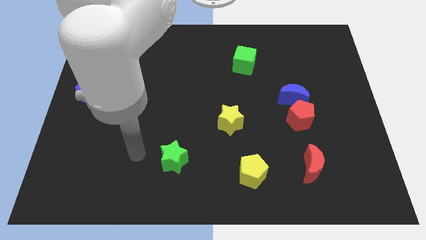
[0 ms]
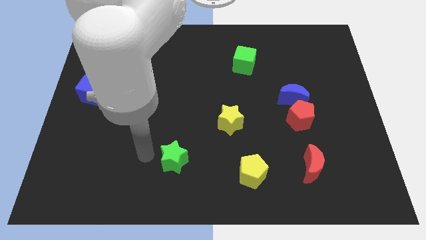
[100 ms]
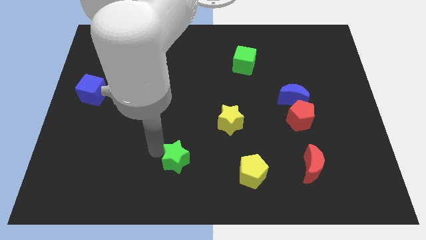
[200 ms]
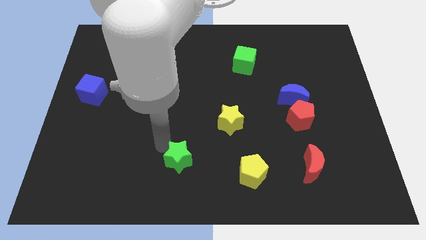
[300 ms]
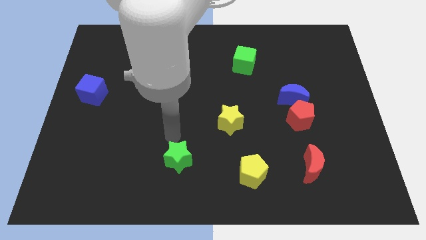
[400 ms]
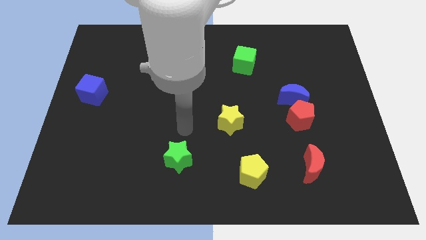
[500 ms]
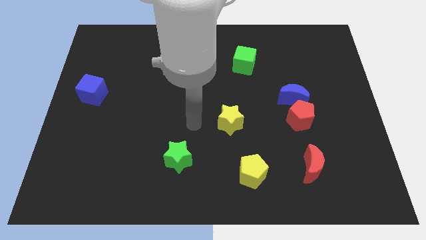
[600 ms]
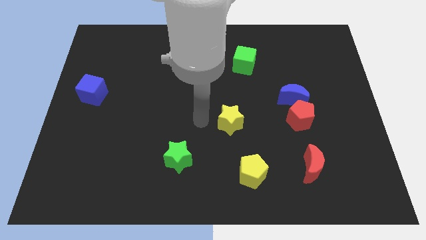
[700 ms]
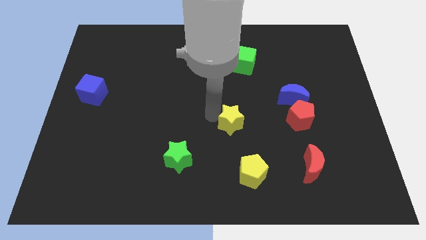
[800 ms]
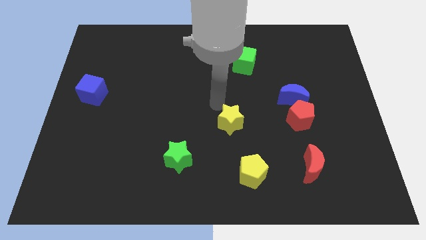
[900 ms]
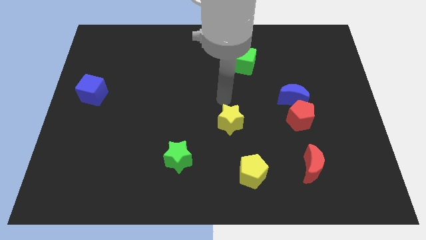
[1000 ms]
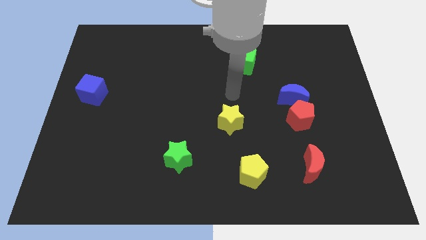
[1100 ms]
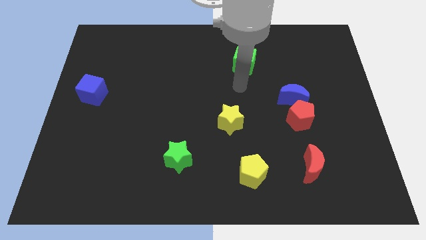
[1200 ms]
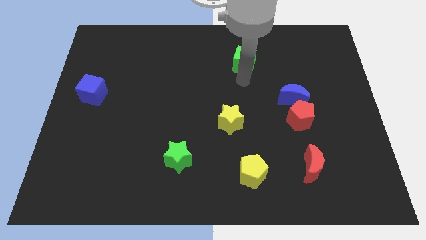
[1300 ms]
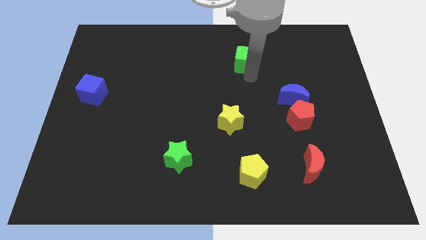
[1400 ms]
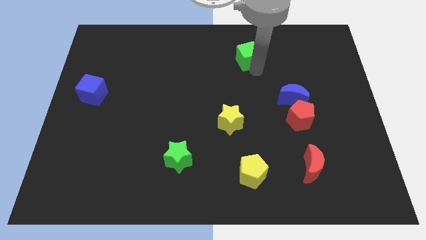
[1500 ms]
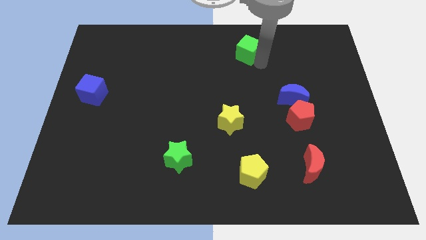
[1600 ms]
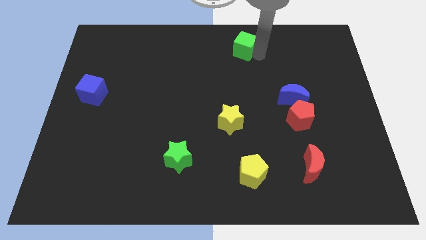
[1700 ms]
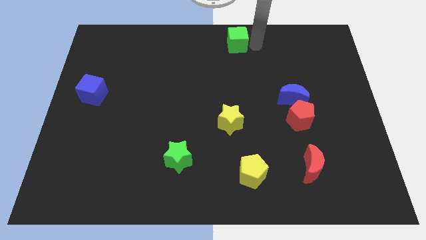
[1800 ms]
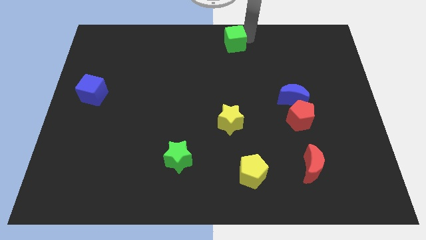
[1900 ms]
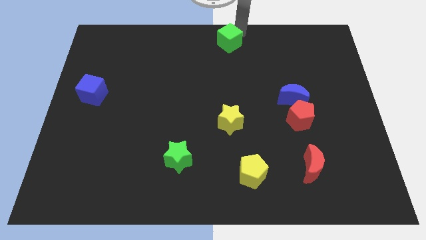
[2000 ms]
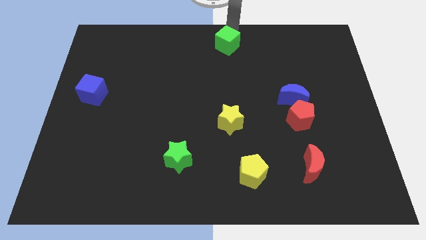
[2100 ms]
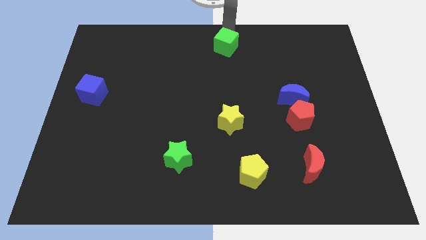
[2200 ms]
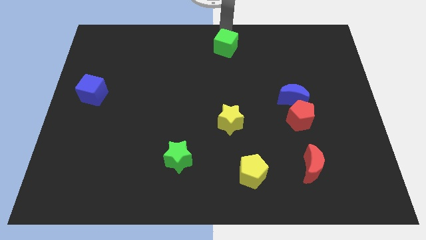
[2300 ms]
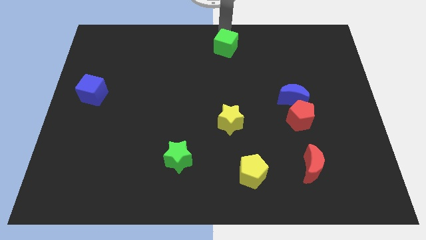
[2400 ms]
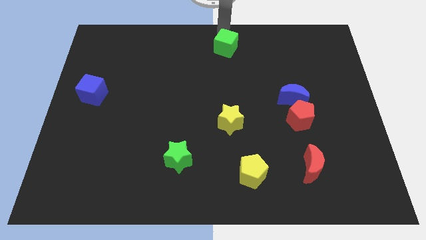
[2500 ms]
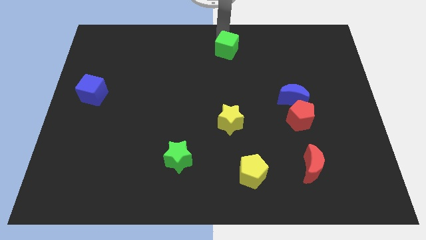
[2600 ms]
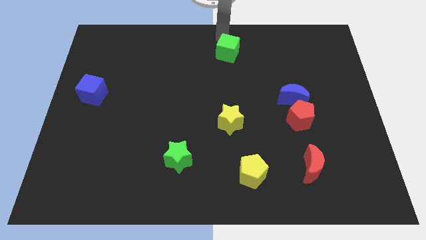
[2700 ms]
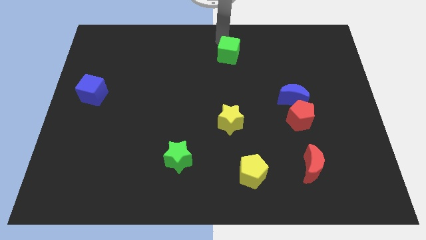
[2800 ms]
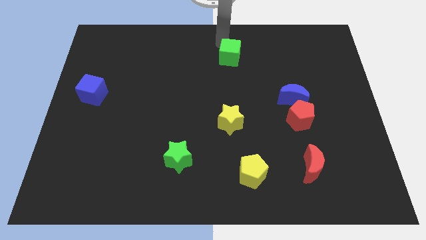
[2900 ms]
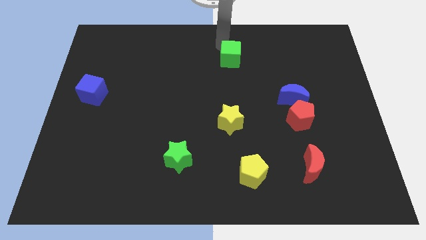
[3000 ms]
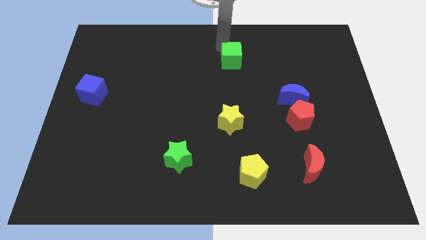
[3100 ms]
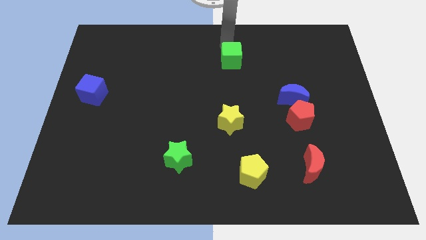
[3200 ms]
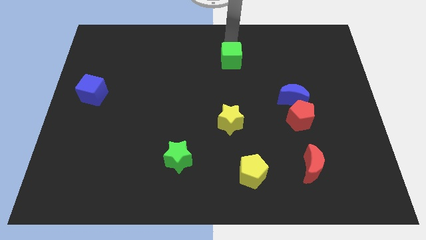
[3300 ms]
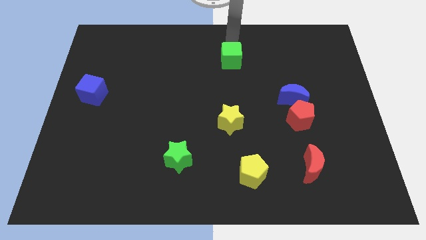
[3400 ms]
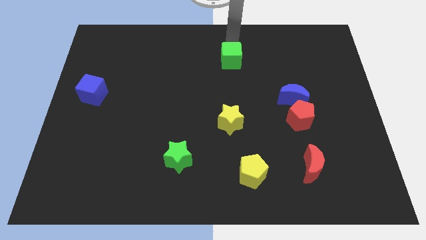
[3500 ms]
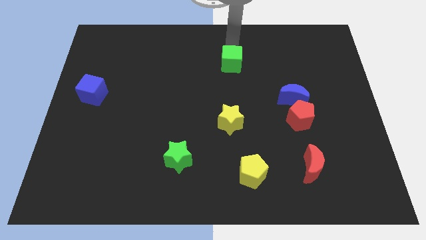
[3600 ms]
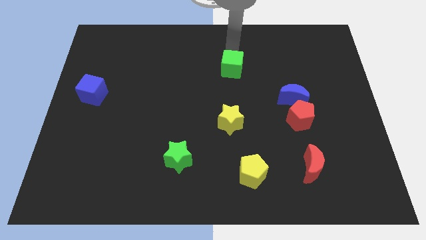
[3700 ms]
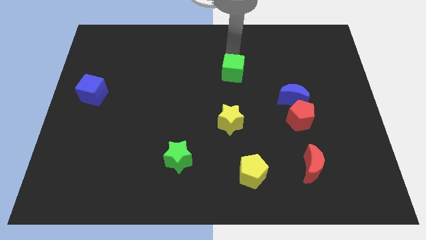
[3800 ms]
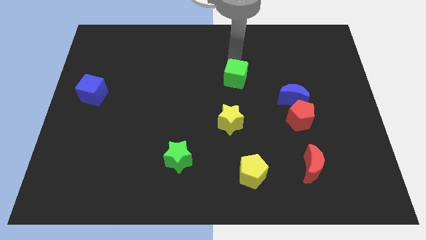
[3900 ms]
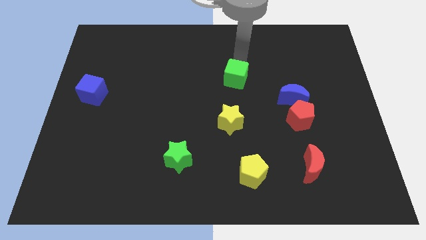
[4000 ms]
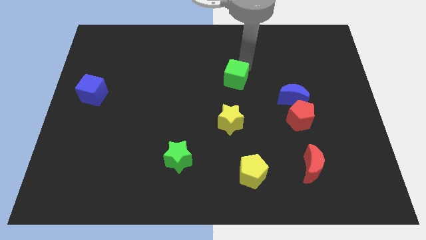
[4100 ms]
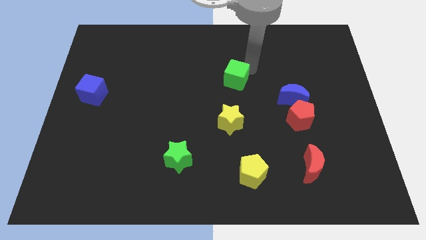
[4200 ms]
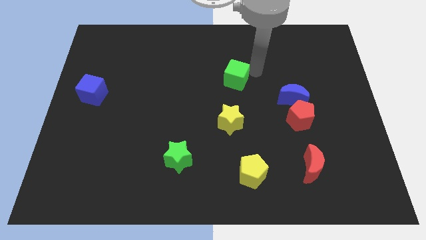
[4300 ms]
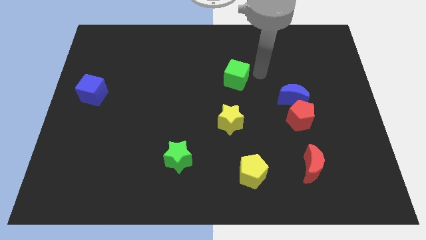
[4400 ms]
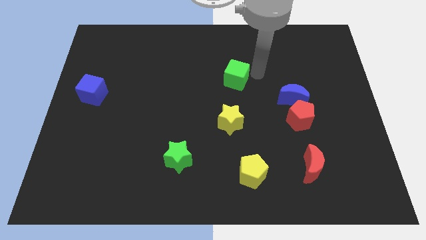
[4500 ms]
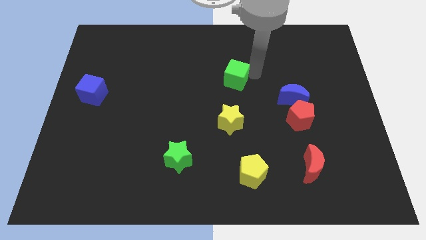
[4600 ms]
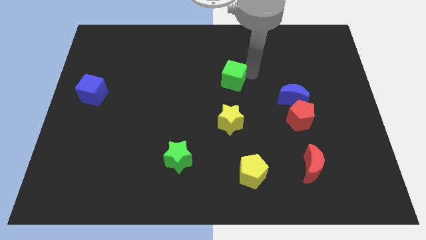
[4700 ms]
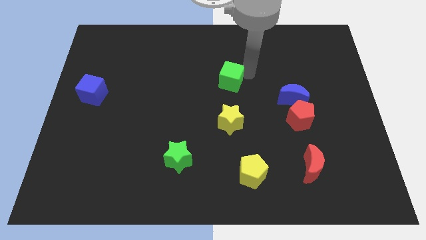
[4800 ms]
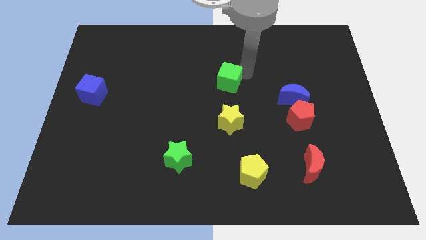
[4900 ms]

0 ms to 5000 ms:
move the green cube somewhat diagonally down and left

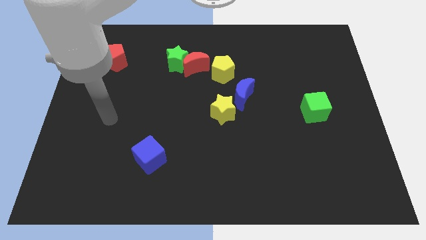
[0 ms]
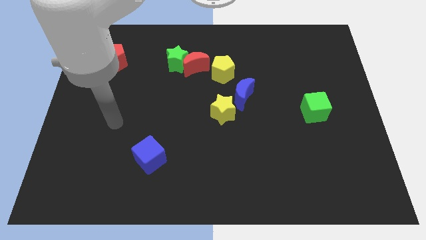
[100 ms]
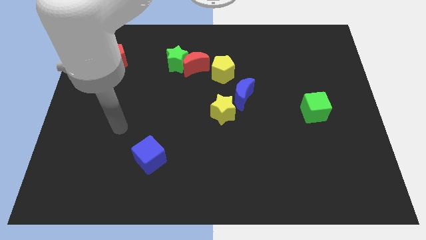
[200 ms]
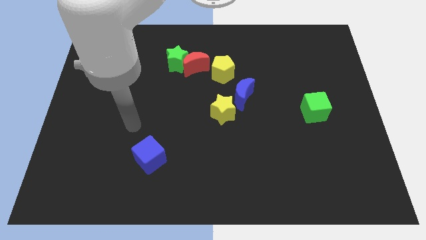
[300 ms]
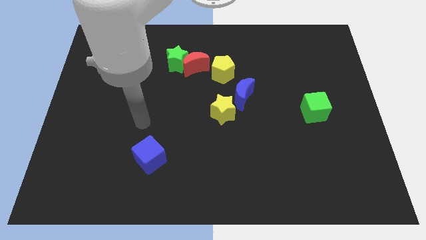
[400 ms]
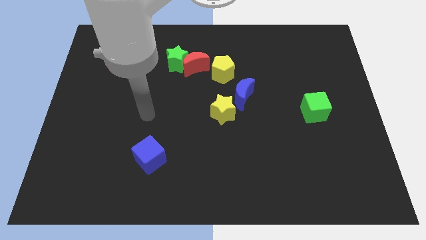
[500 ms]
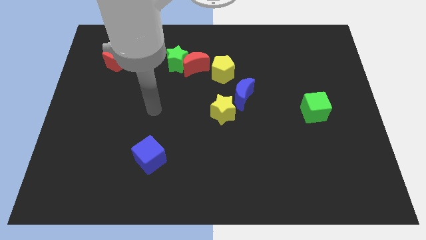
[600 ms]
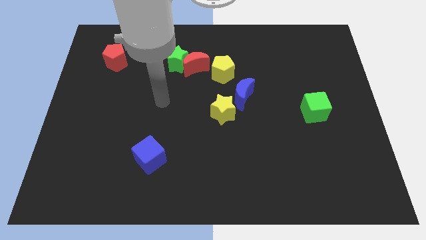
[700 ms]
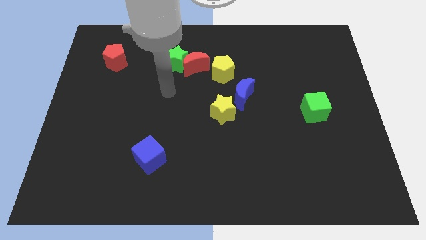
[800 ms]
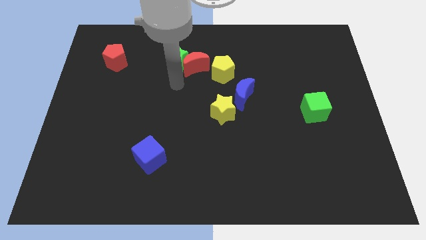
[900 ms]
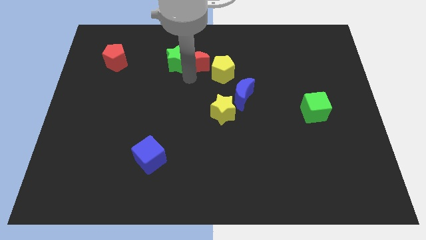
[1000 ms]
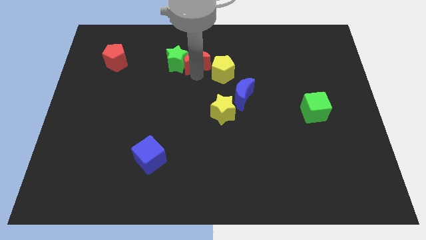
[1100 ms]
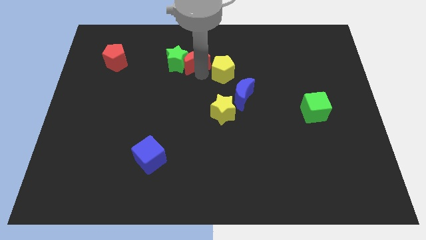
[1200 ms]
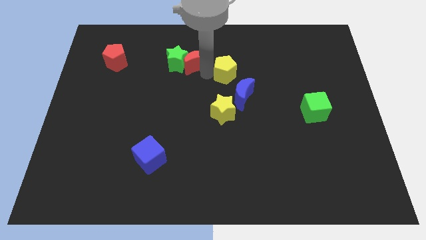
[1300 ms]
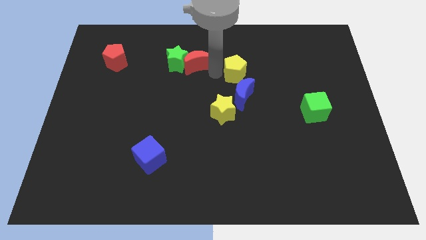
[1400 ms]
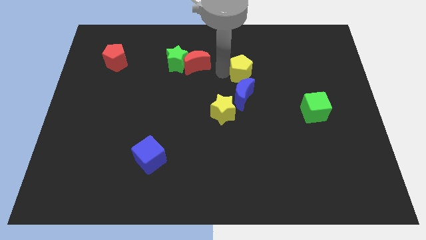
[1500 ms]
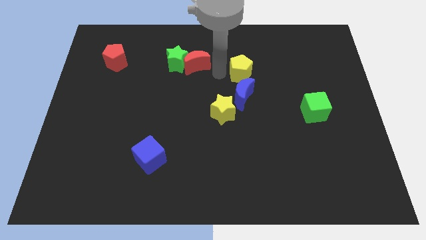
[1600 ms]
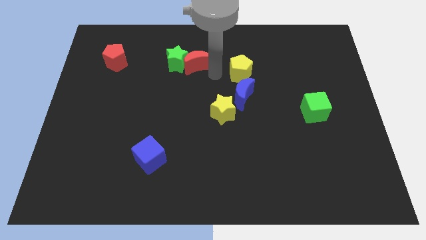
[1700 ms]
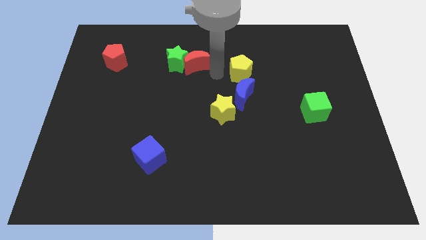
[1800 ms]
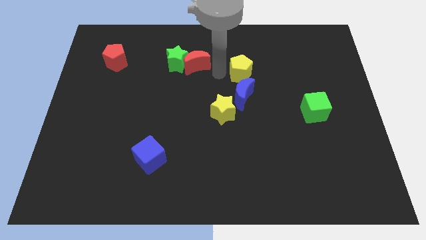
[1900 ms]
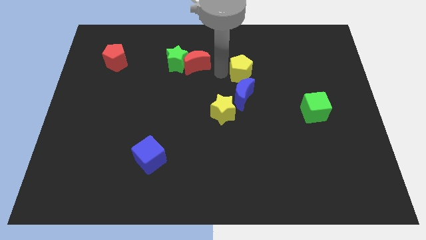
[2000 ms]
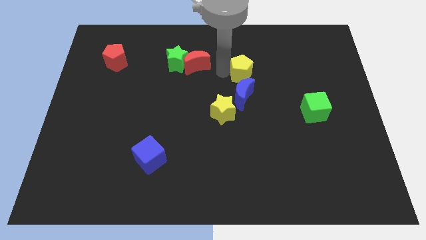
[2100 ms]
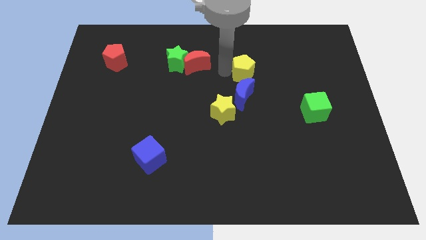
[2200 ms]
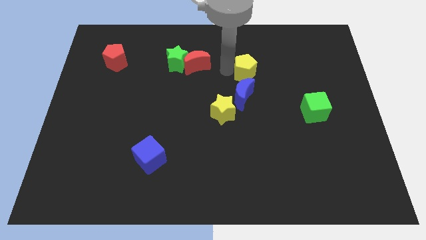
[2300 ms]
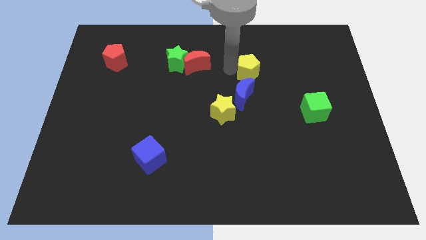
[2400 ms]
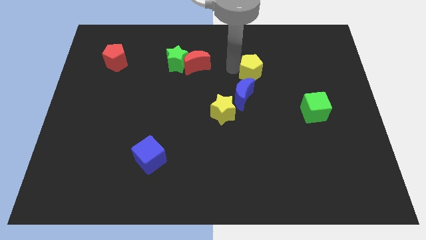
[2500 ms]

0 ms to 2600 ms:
move the yellow pentagon a bit to the right

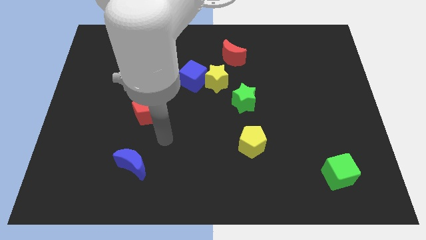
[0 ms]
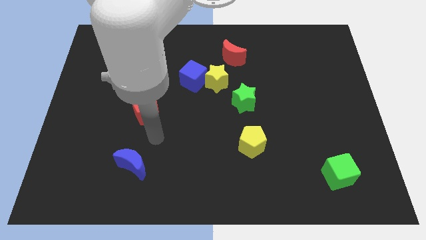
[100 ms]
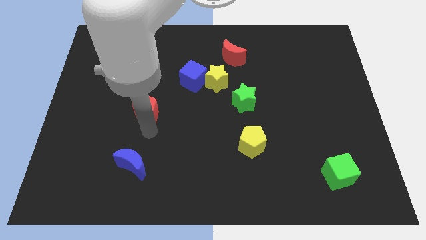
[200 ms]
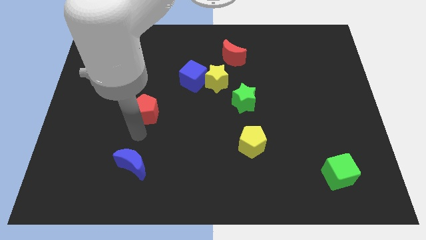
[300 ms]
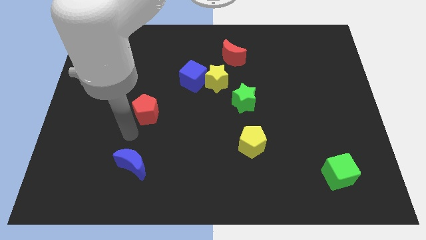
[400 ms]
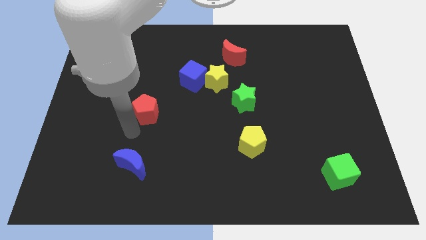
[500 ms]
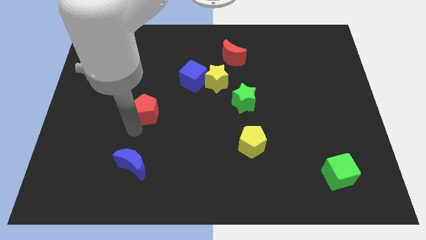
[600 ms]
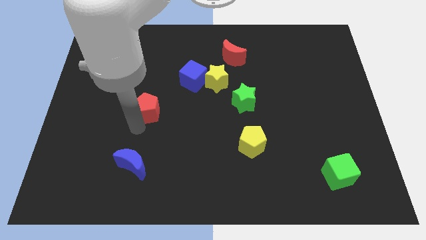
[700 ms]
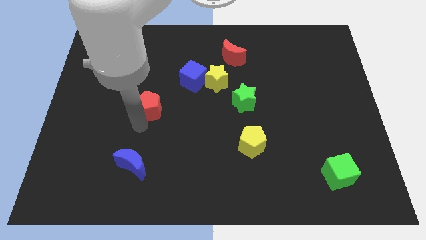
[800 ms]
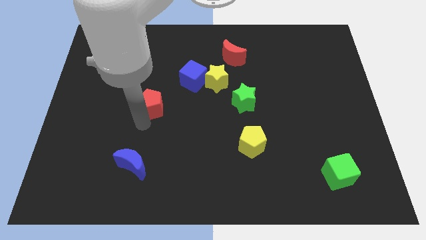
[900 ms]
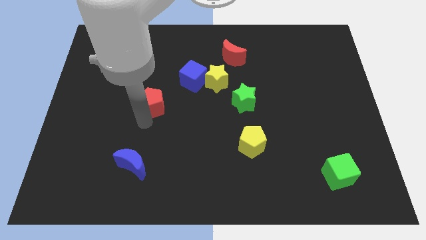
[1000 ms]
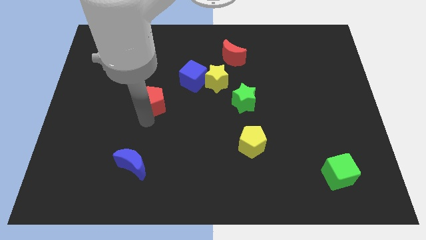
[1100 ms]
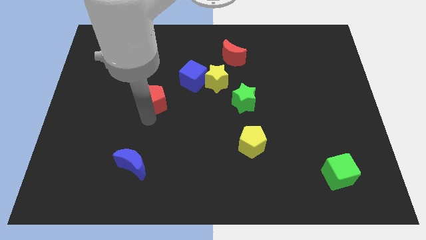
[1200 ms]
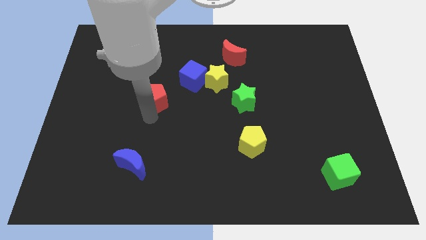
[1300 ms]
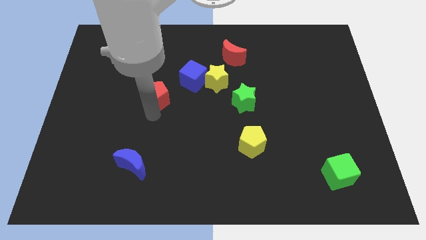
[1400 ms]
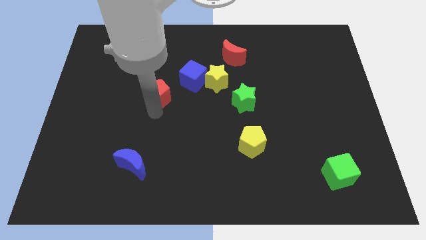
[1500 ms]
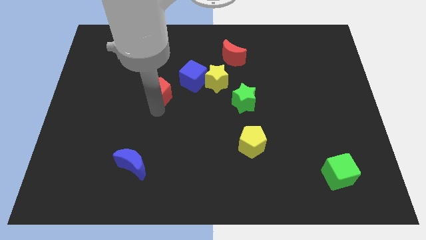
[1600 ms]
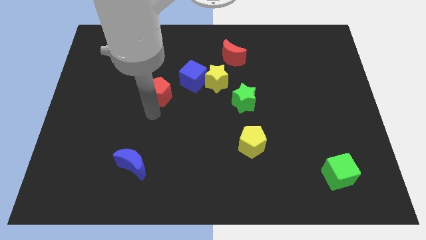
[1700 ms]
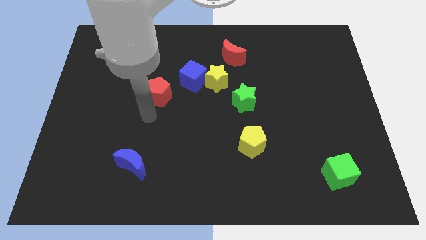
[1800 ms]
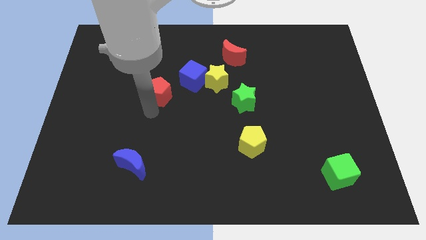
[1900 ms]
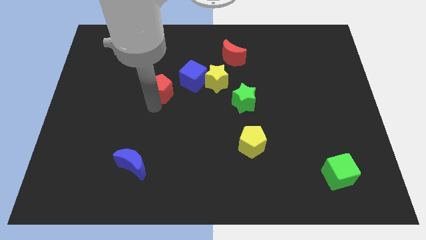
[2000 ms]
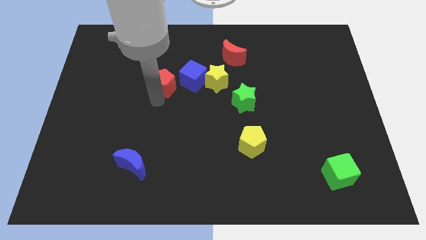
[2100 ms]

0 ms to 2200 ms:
slightly push the red pentagon up and to the right diagonally
